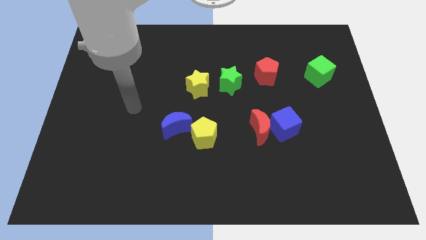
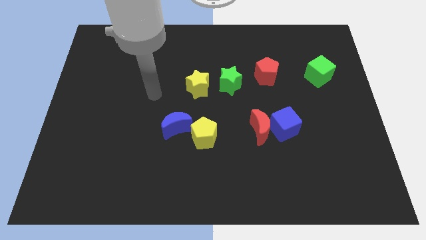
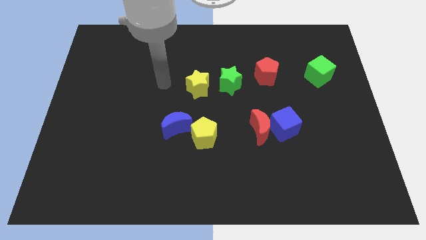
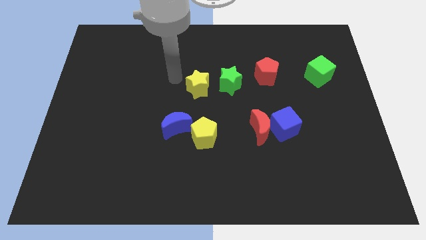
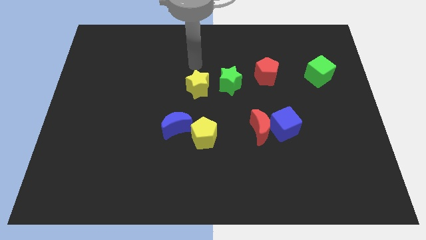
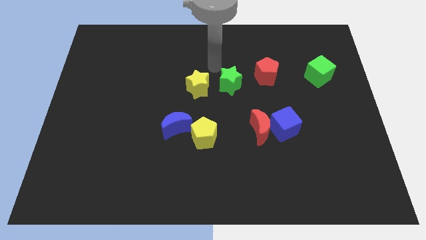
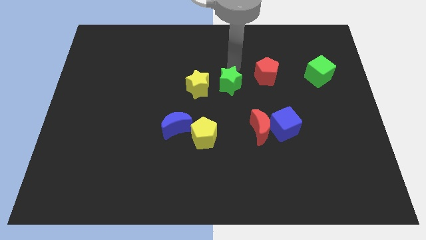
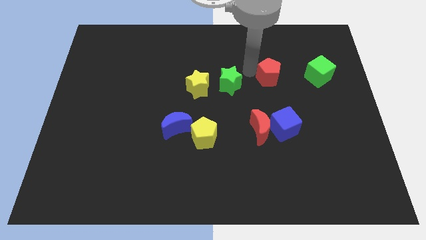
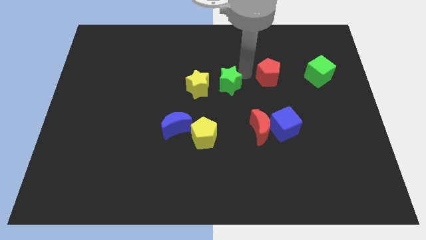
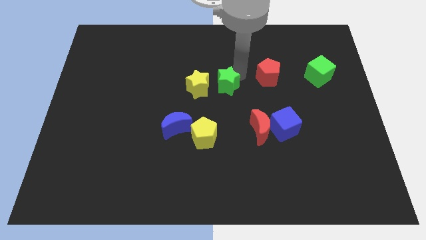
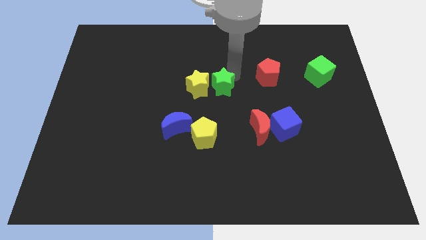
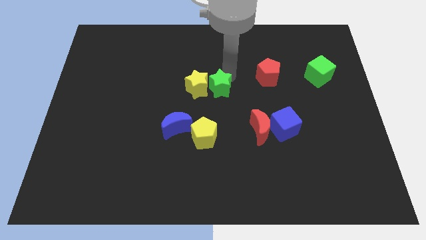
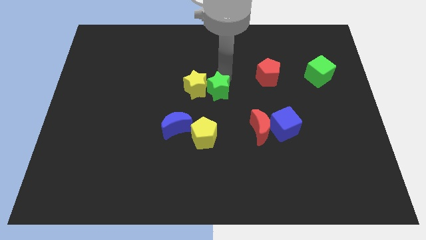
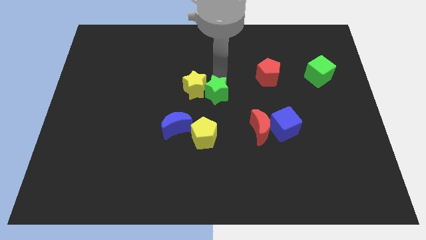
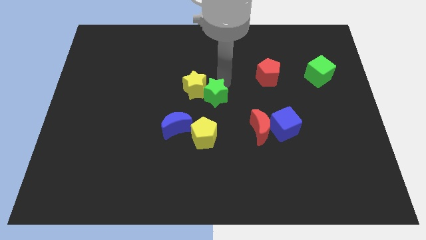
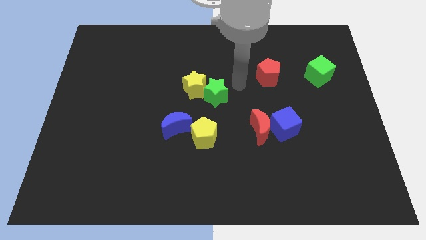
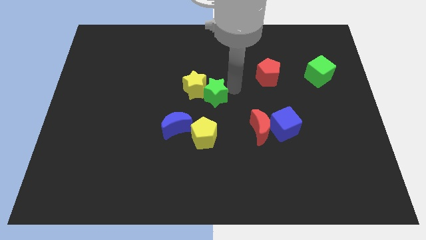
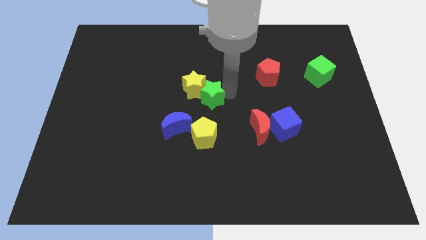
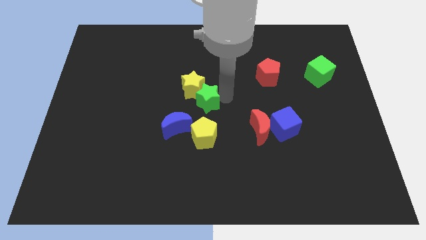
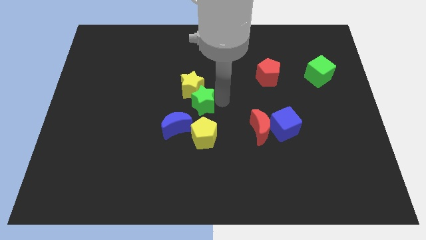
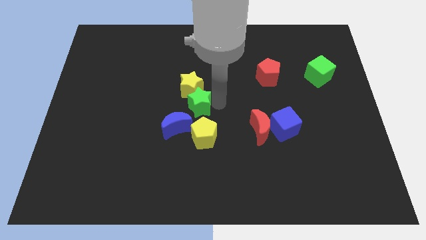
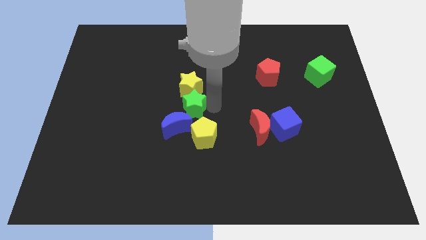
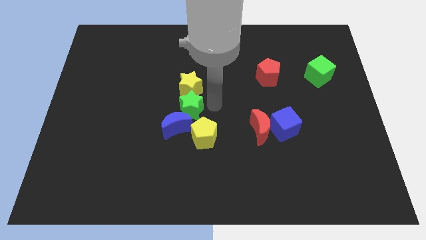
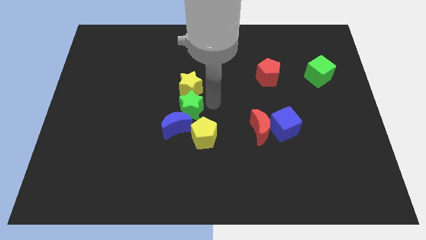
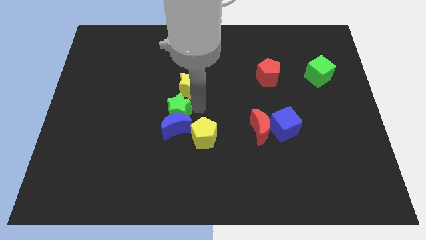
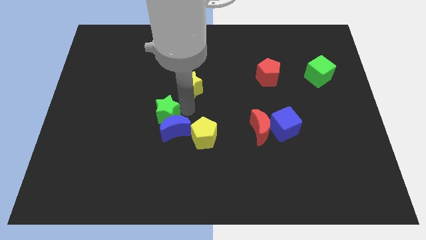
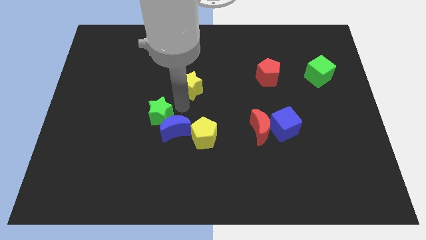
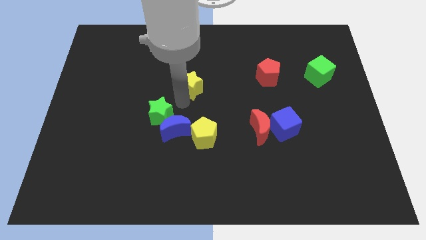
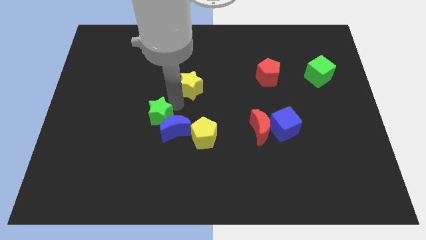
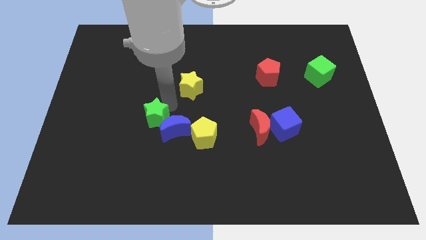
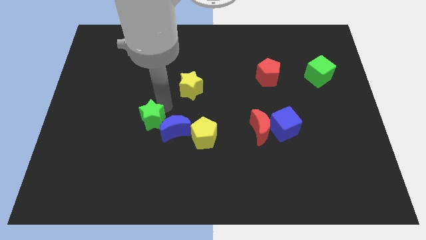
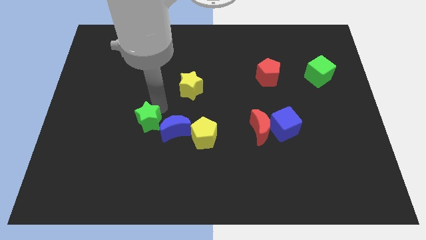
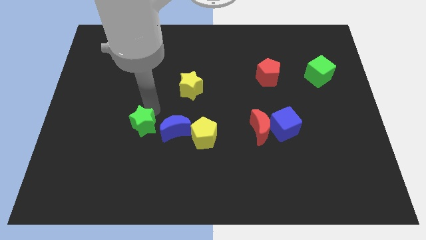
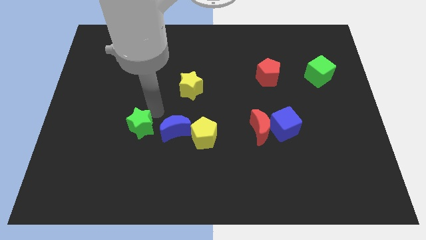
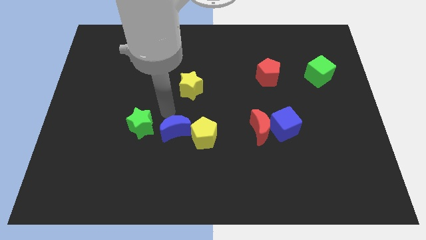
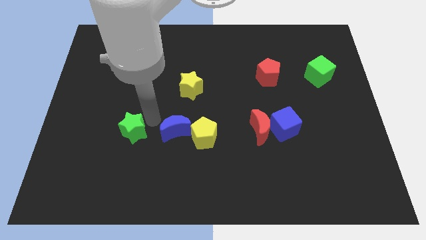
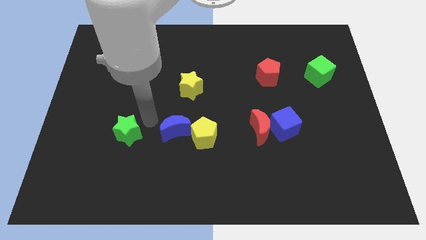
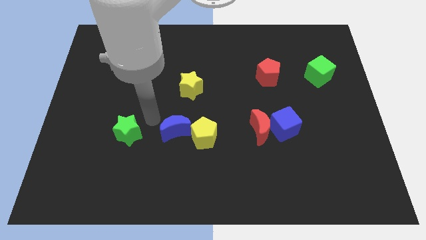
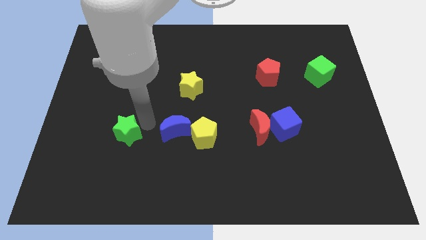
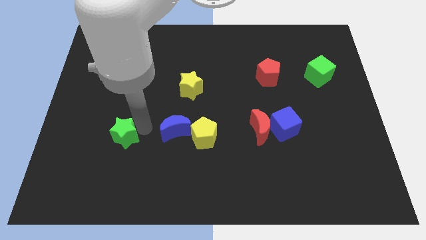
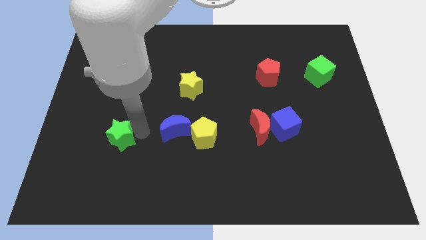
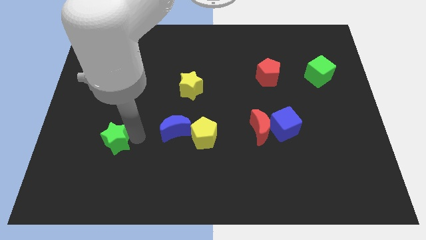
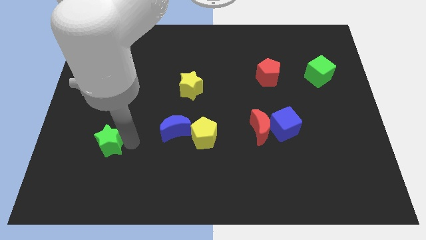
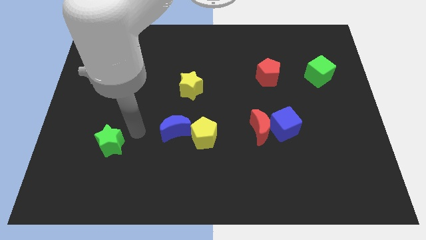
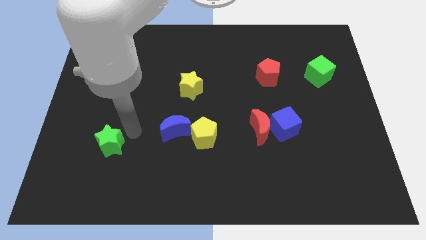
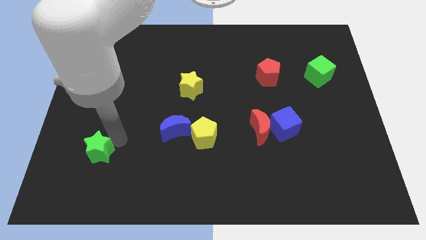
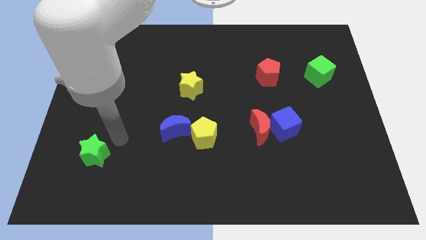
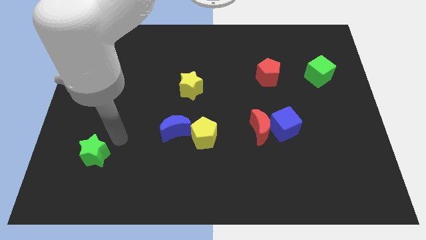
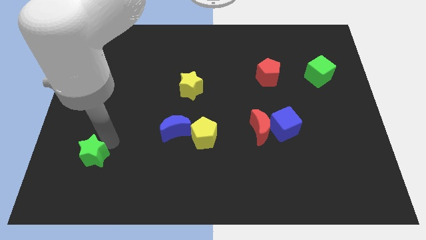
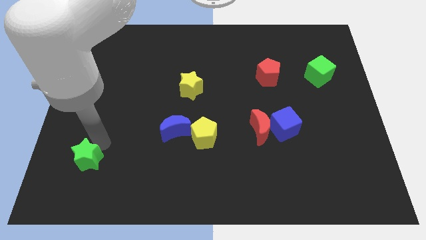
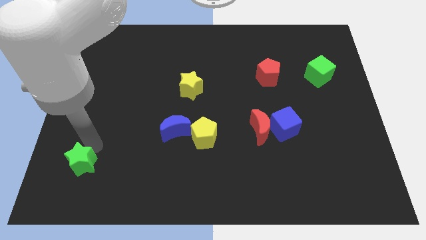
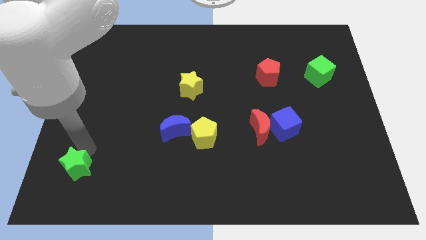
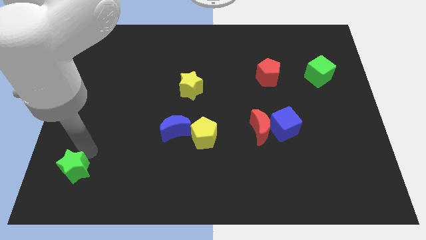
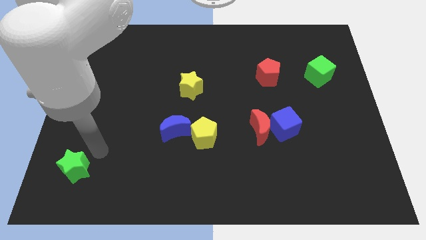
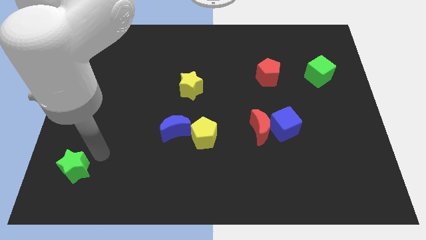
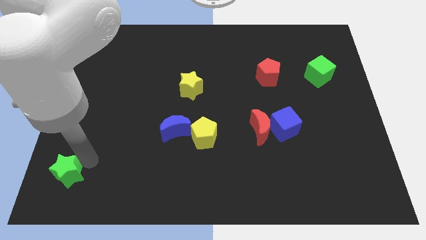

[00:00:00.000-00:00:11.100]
move the green star to the bottom left of the board

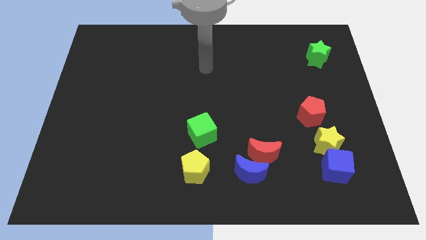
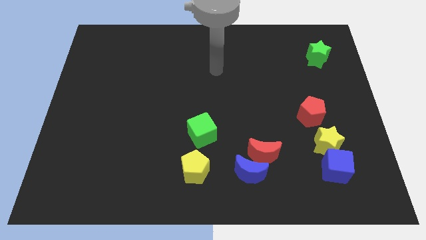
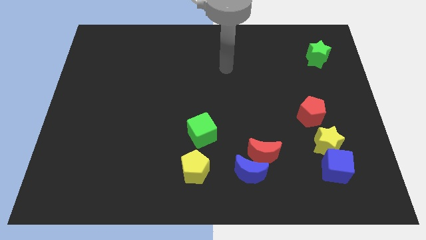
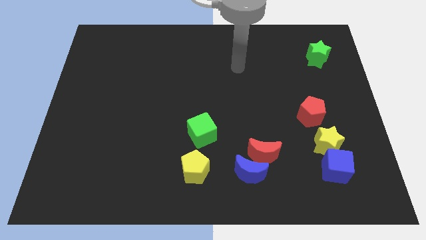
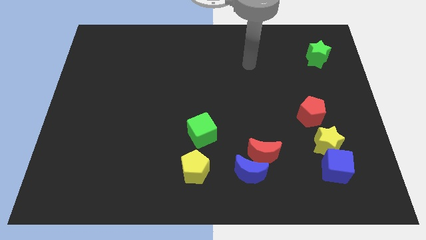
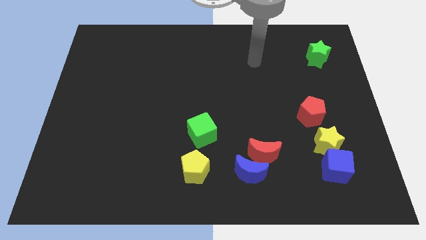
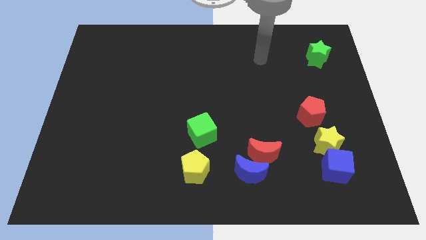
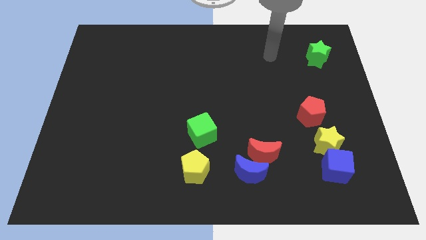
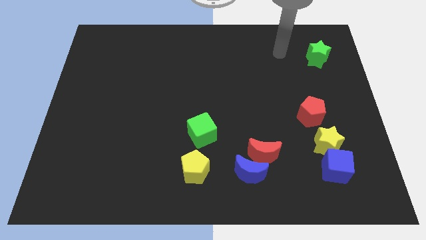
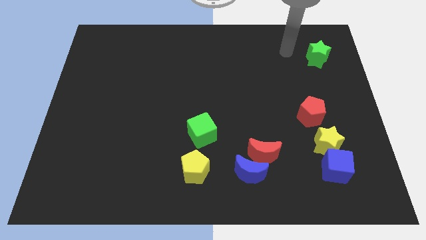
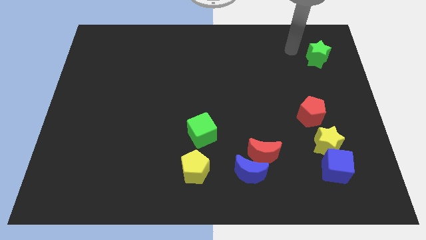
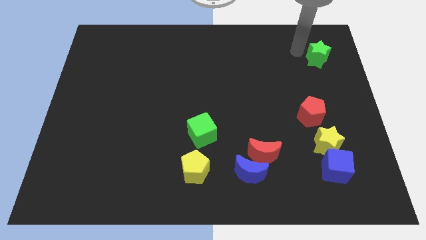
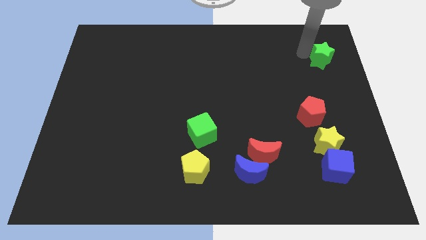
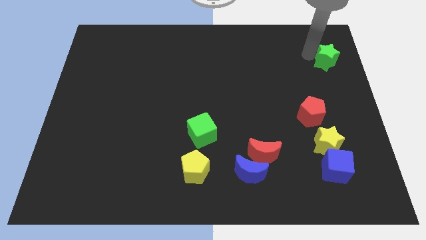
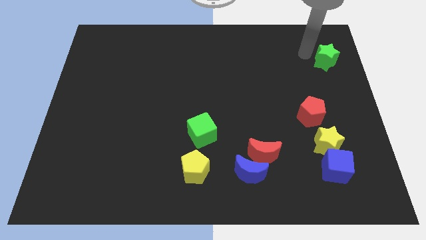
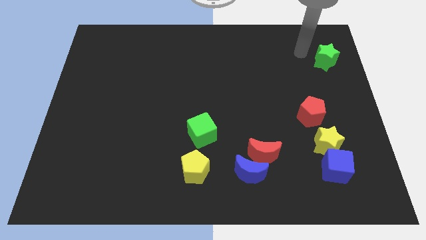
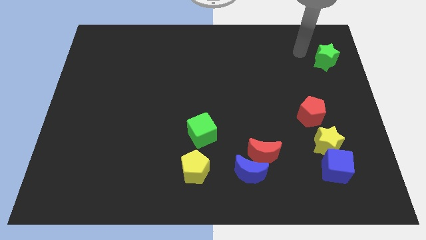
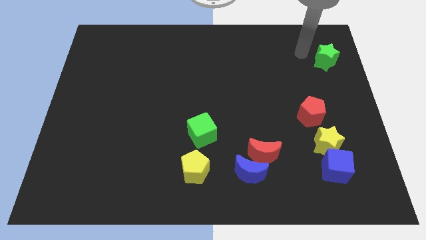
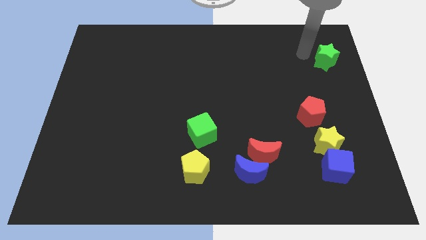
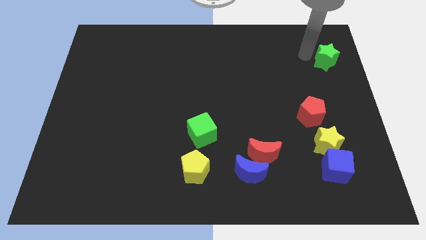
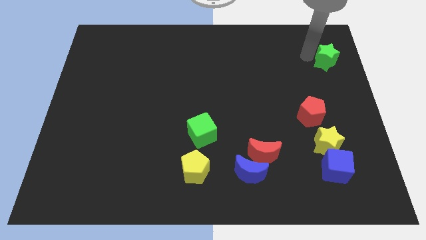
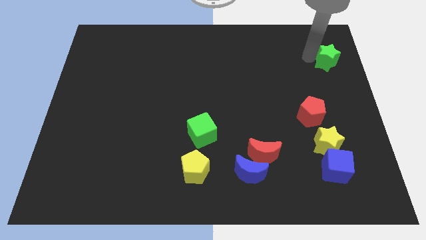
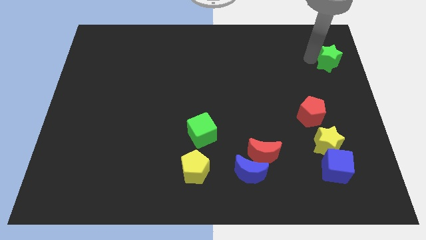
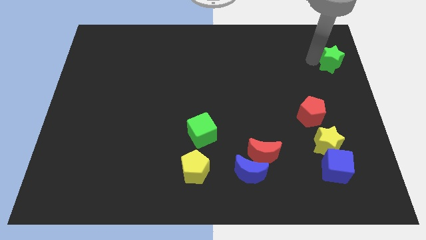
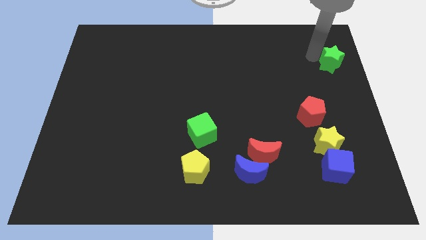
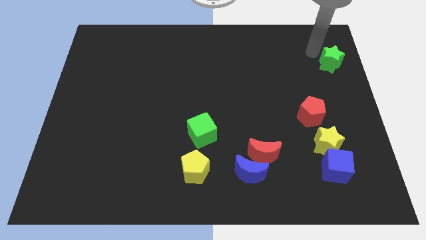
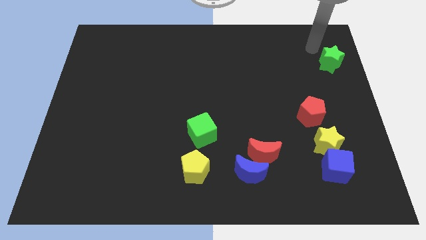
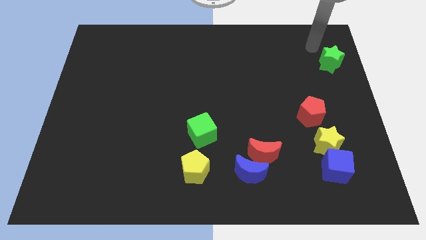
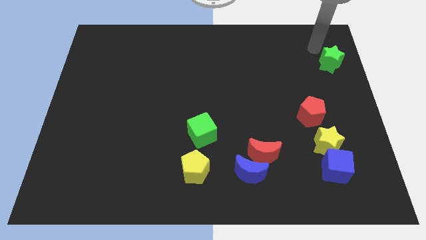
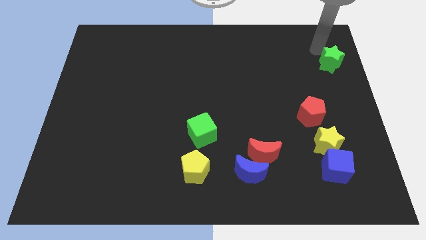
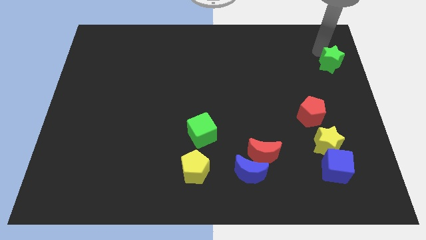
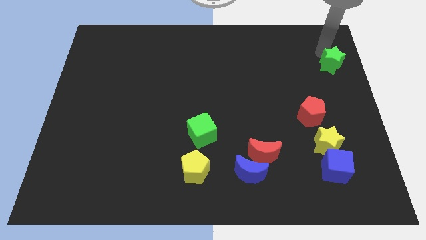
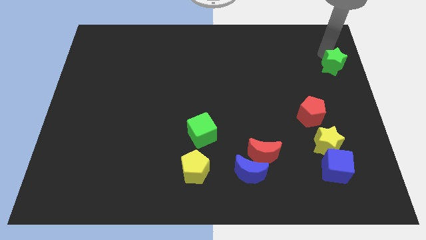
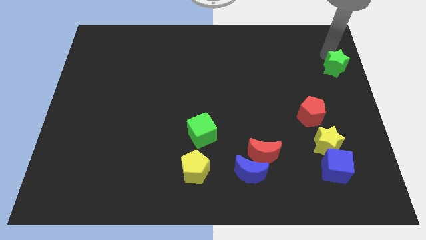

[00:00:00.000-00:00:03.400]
move the green star to the right side
